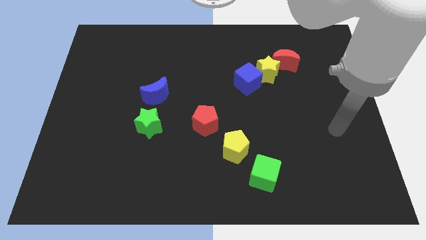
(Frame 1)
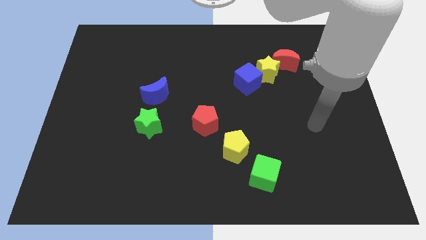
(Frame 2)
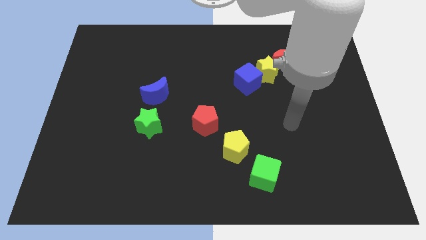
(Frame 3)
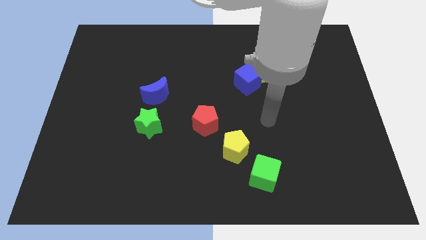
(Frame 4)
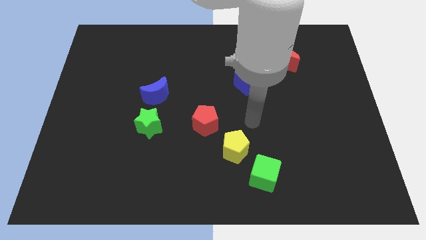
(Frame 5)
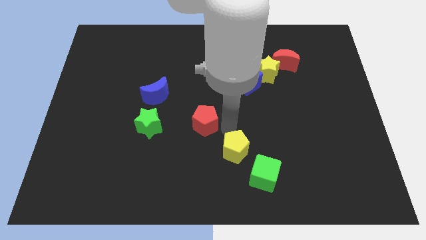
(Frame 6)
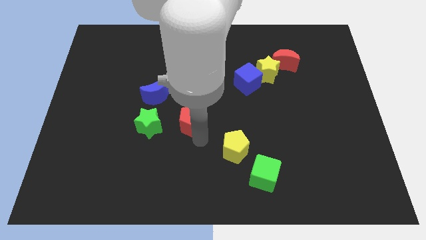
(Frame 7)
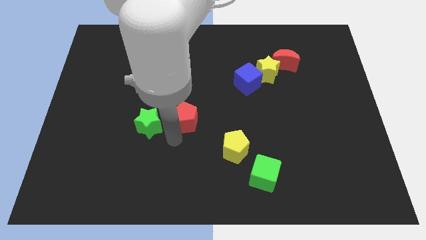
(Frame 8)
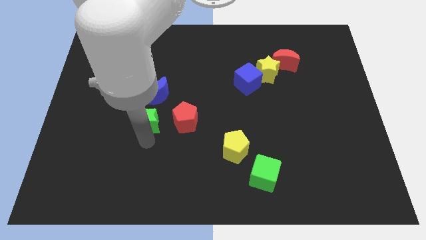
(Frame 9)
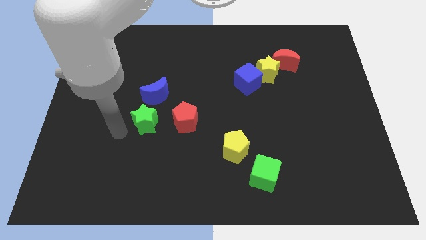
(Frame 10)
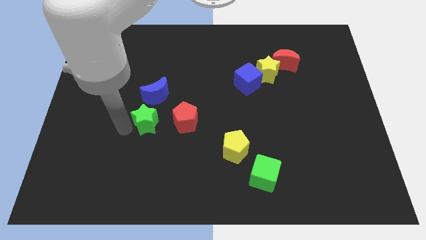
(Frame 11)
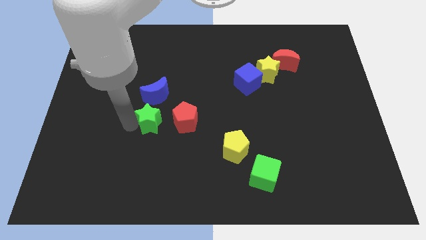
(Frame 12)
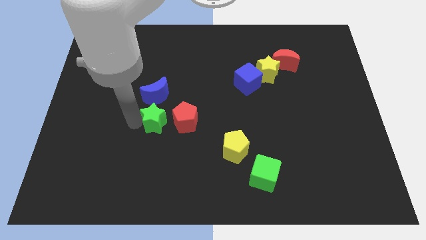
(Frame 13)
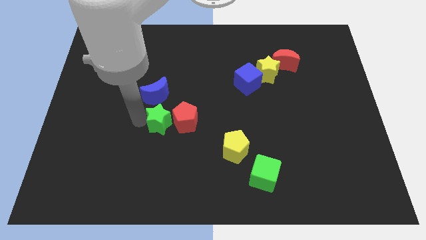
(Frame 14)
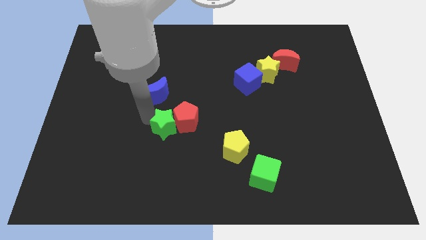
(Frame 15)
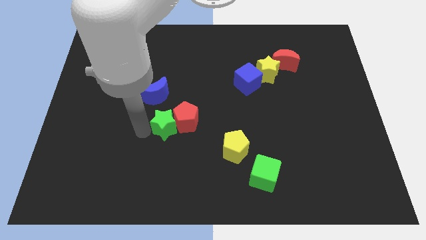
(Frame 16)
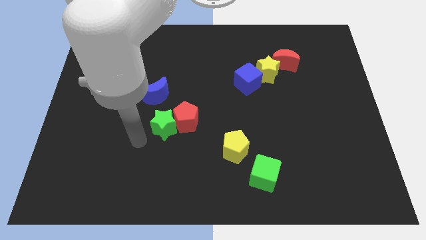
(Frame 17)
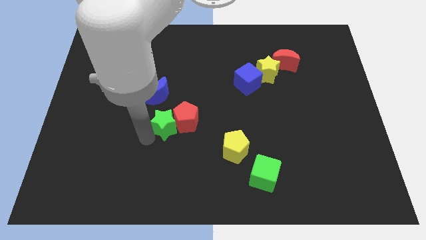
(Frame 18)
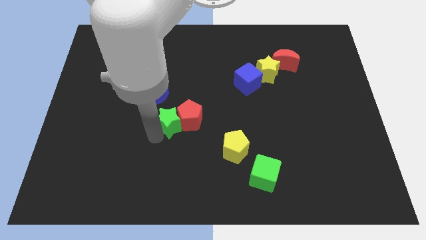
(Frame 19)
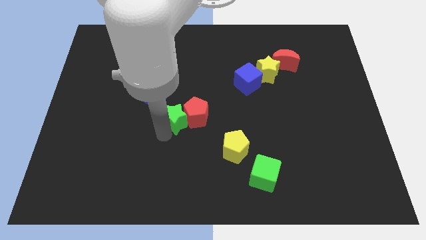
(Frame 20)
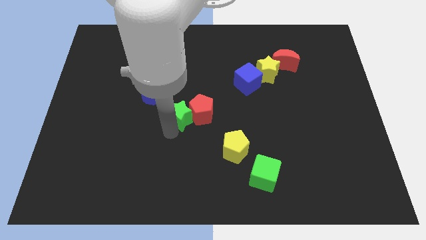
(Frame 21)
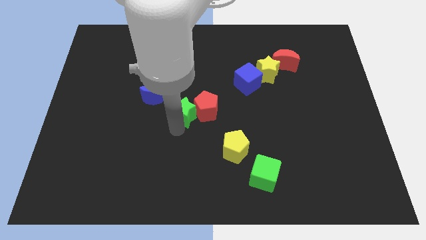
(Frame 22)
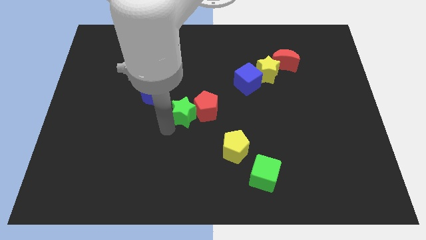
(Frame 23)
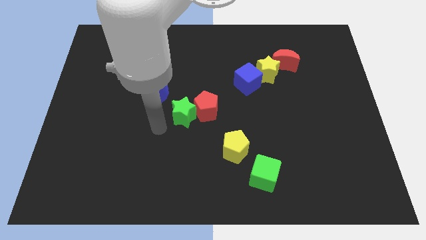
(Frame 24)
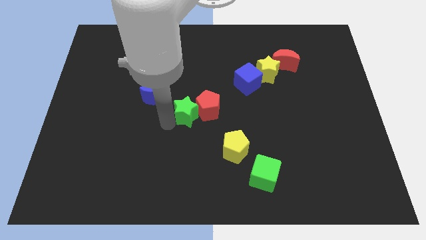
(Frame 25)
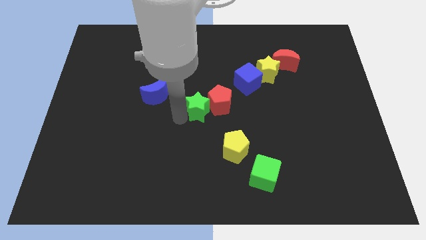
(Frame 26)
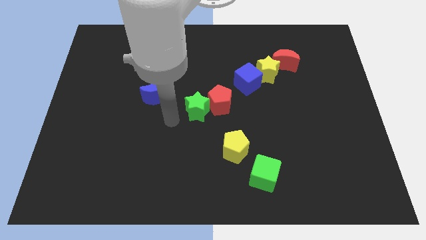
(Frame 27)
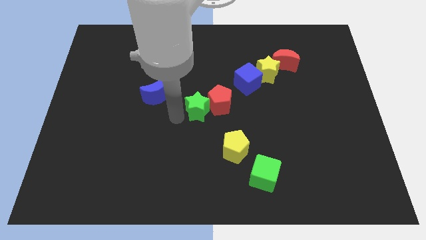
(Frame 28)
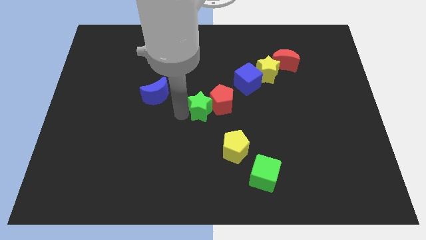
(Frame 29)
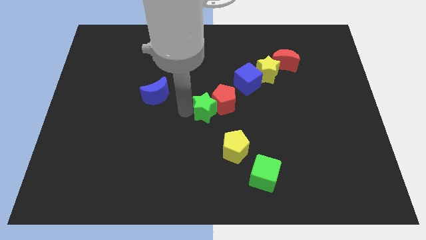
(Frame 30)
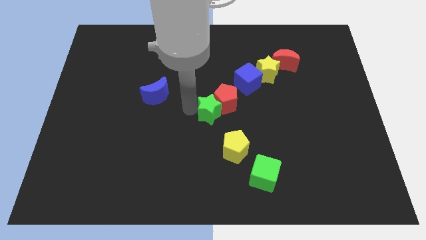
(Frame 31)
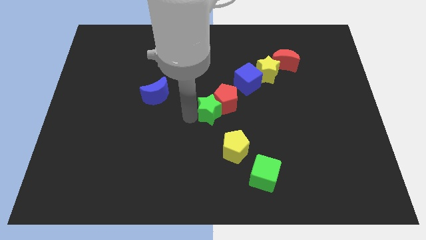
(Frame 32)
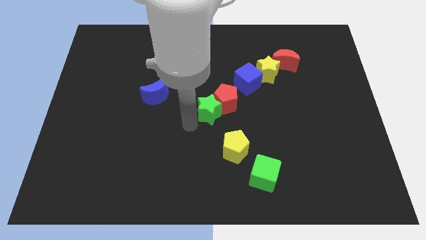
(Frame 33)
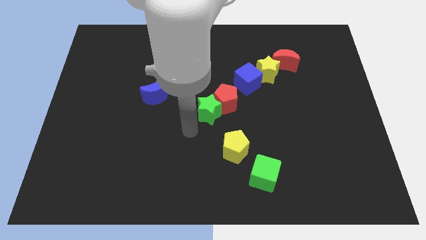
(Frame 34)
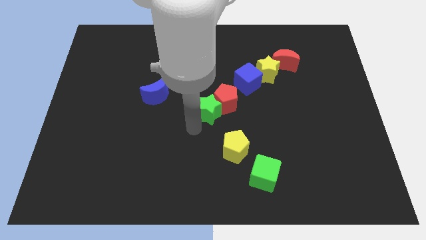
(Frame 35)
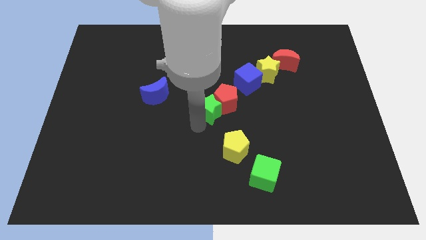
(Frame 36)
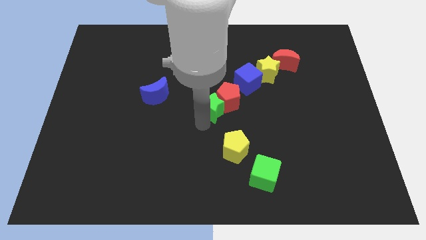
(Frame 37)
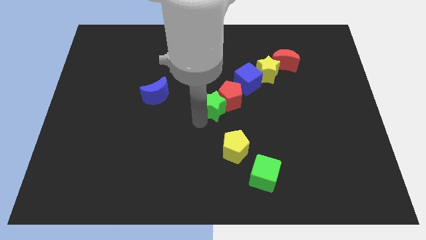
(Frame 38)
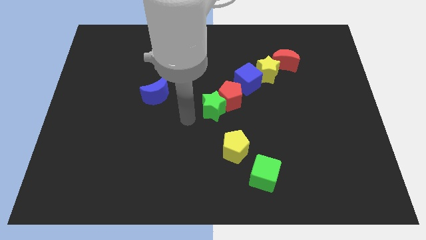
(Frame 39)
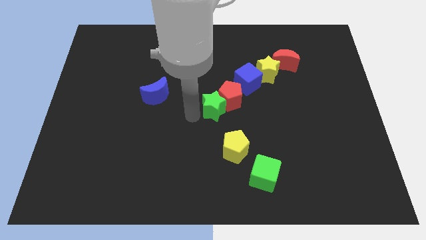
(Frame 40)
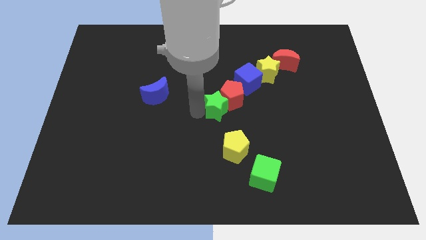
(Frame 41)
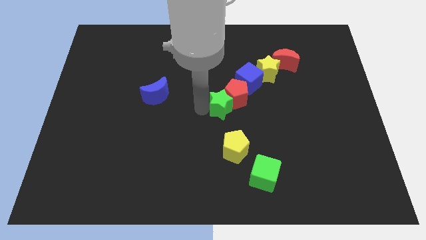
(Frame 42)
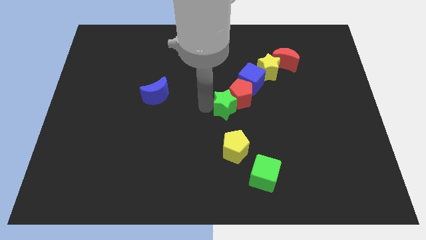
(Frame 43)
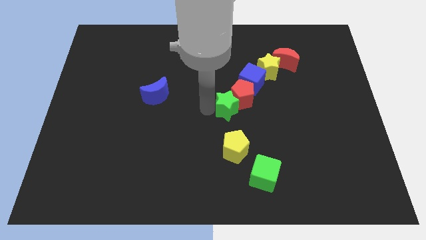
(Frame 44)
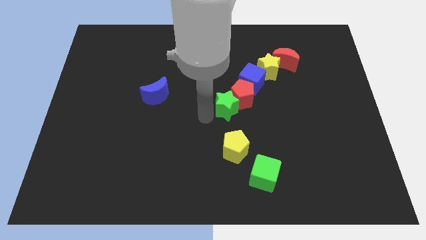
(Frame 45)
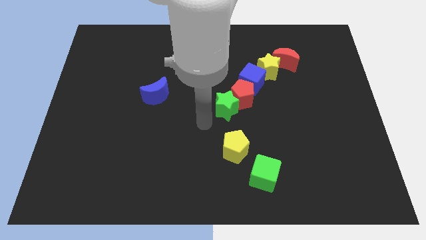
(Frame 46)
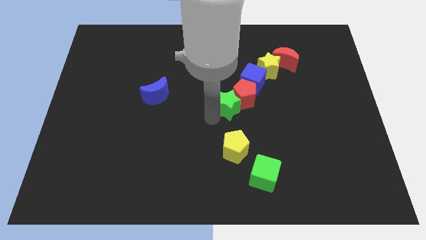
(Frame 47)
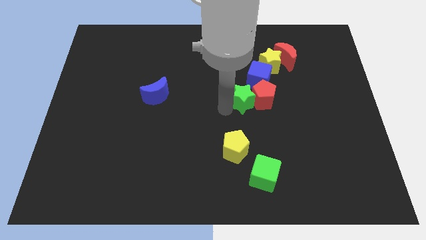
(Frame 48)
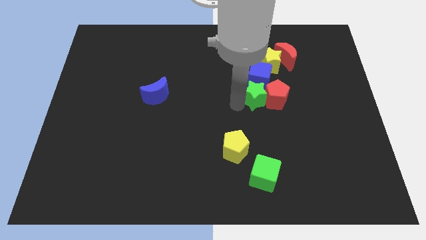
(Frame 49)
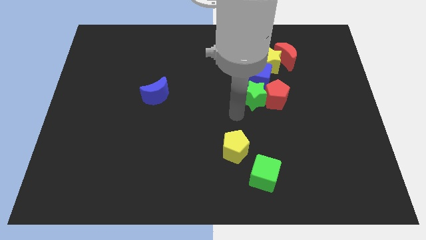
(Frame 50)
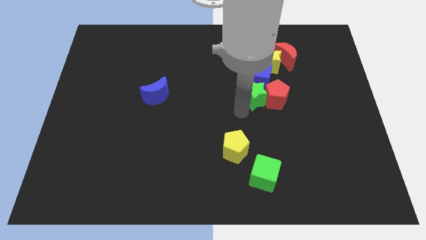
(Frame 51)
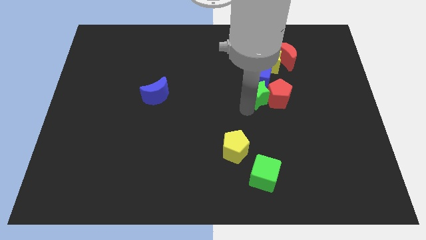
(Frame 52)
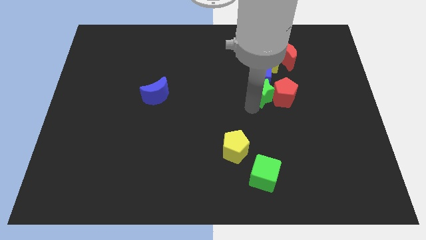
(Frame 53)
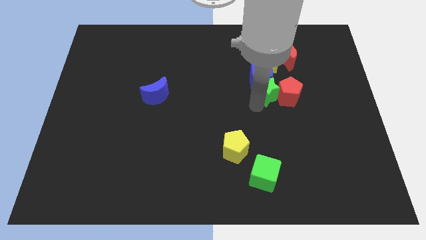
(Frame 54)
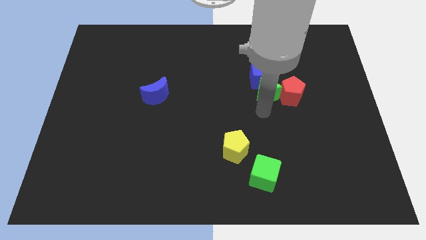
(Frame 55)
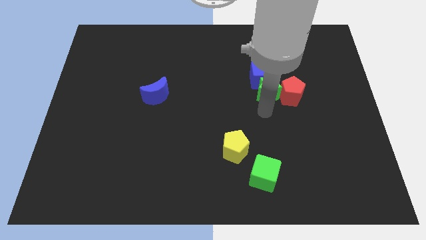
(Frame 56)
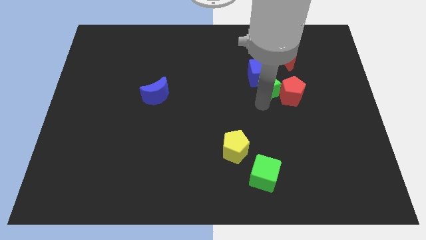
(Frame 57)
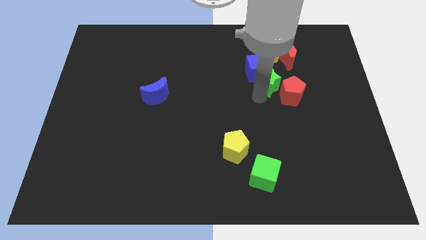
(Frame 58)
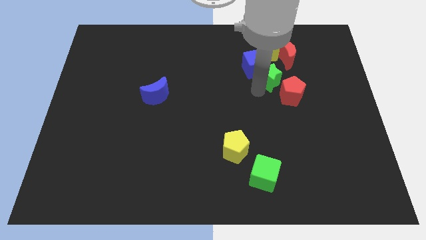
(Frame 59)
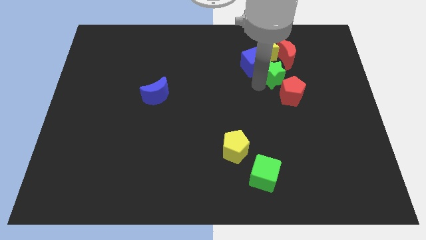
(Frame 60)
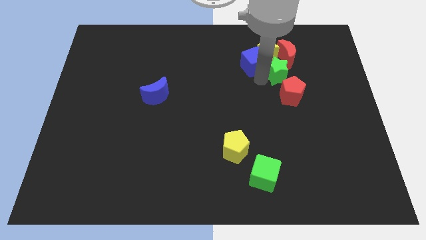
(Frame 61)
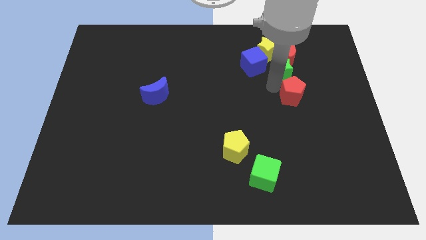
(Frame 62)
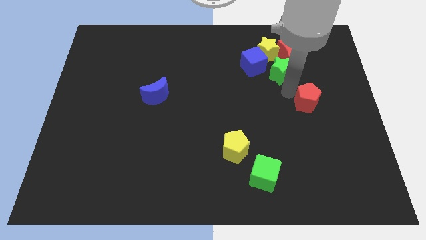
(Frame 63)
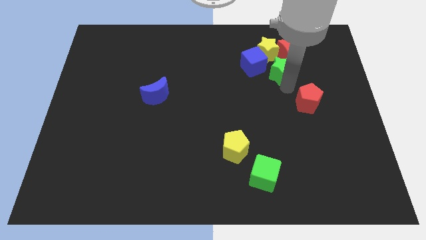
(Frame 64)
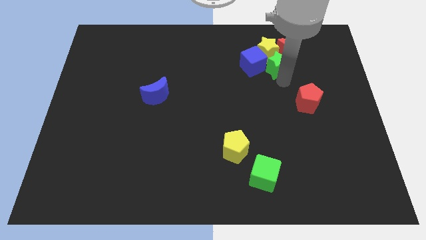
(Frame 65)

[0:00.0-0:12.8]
push the green star close to the yellow star
